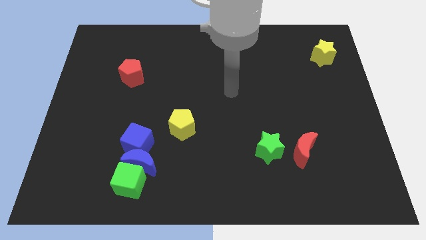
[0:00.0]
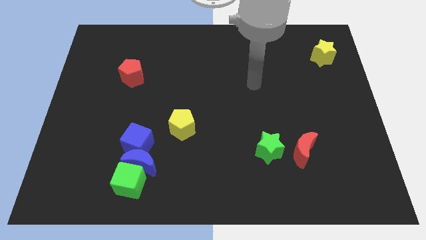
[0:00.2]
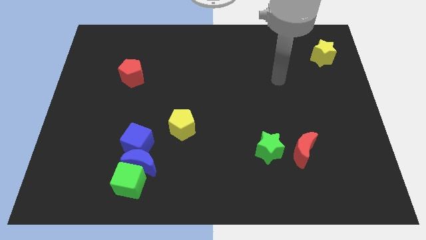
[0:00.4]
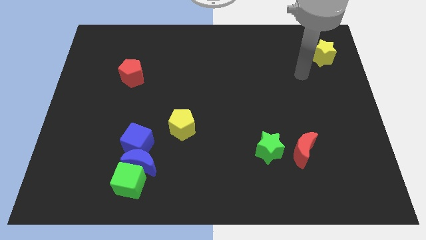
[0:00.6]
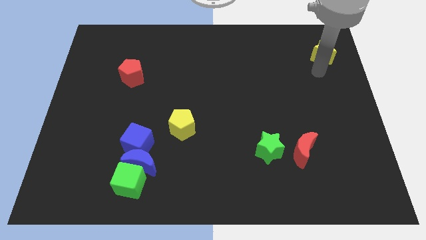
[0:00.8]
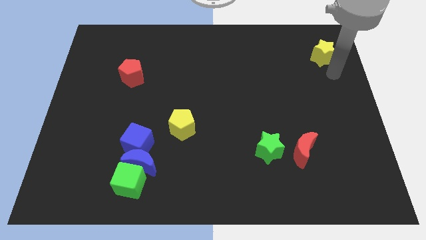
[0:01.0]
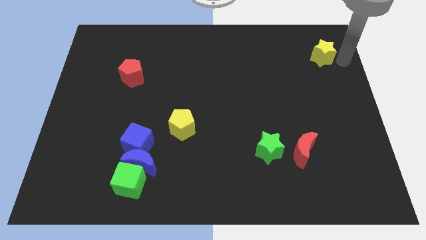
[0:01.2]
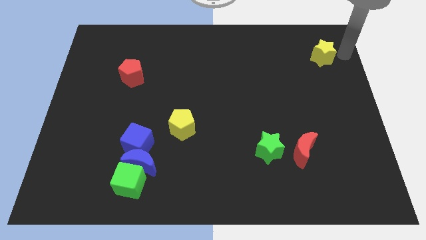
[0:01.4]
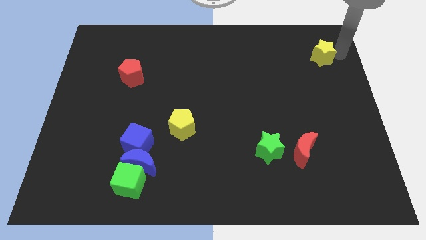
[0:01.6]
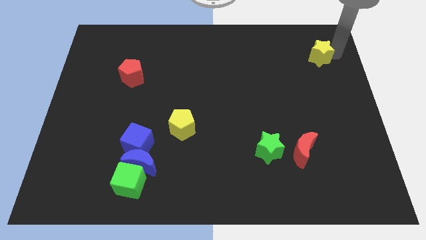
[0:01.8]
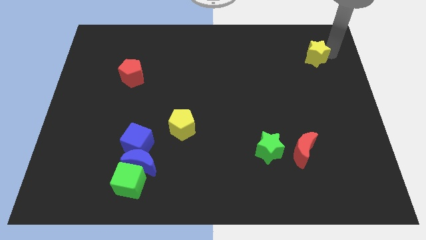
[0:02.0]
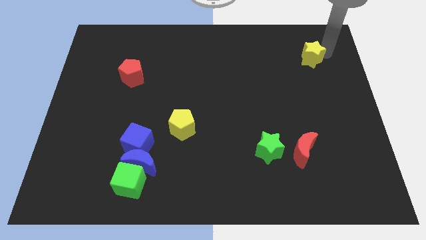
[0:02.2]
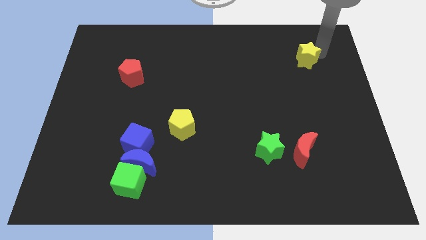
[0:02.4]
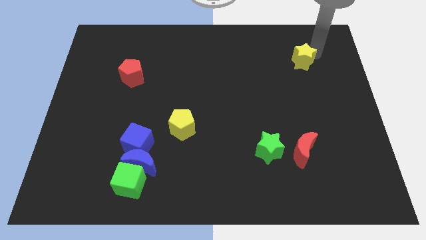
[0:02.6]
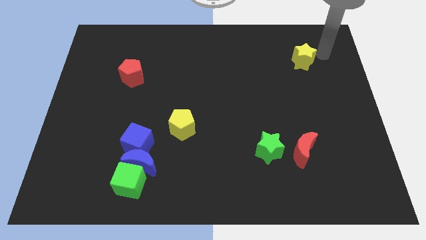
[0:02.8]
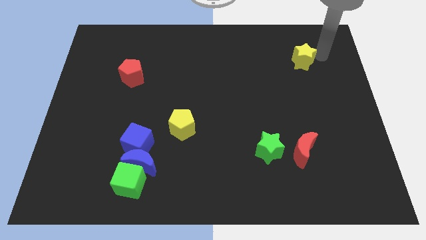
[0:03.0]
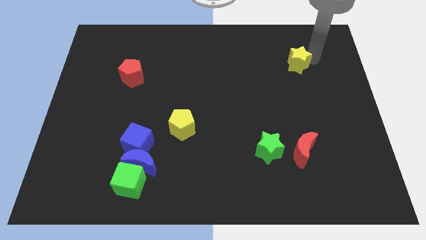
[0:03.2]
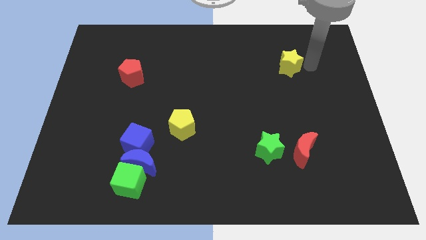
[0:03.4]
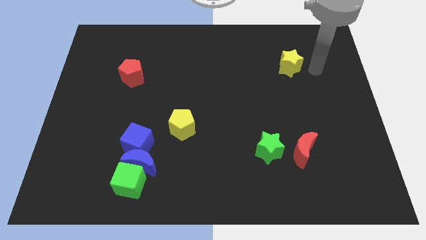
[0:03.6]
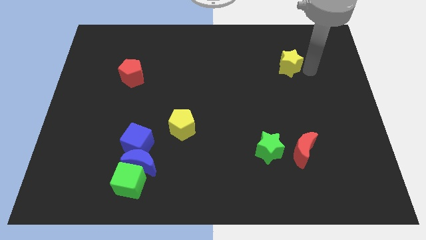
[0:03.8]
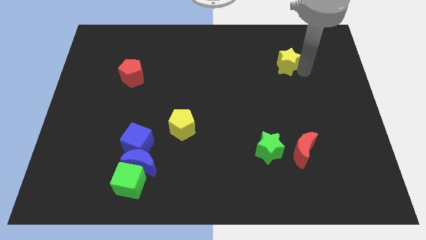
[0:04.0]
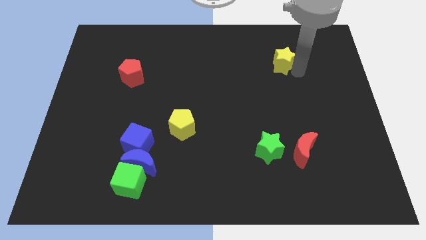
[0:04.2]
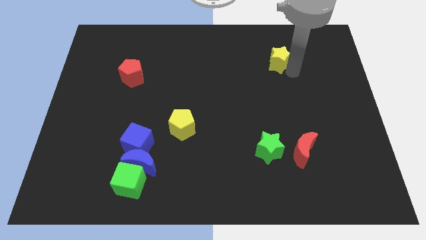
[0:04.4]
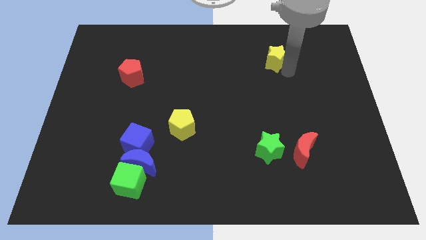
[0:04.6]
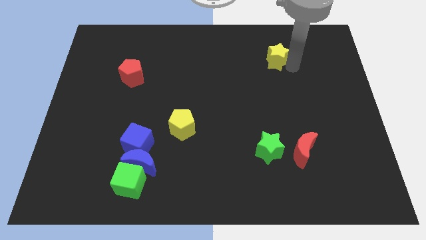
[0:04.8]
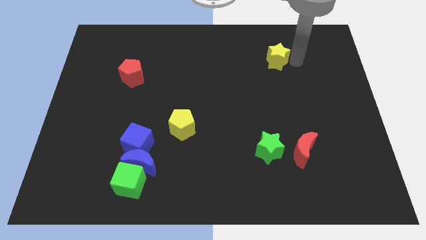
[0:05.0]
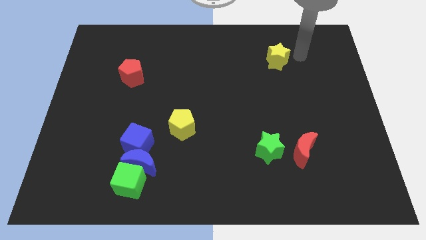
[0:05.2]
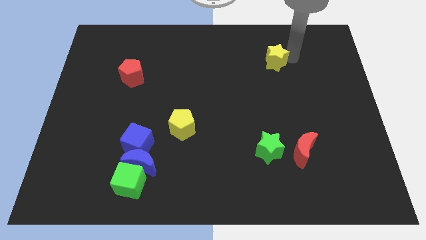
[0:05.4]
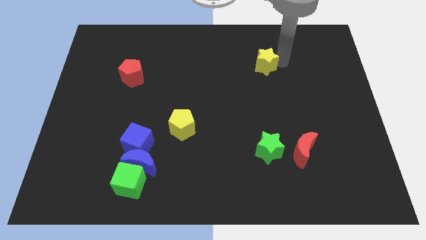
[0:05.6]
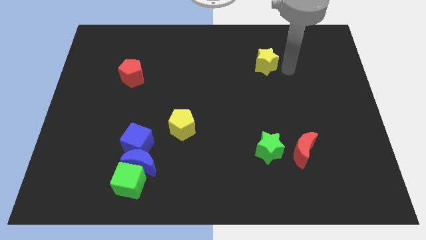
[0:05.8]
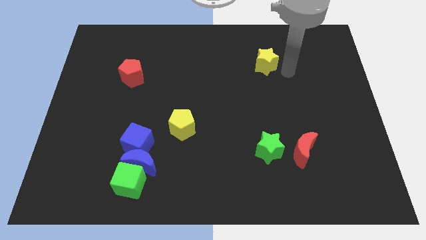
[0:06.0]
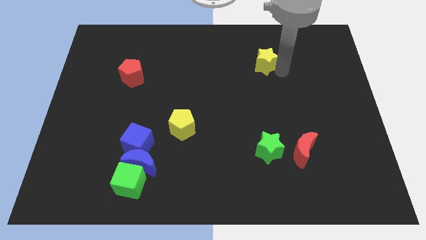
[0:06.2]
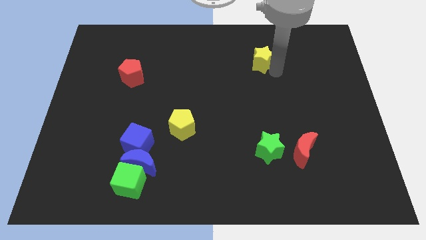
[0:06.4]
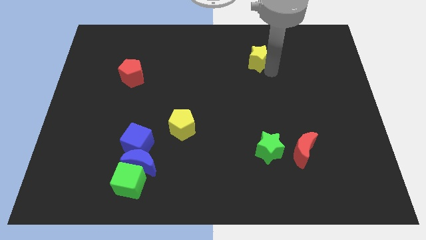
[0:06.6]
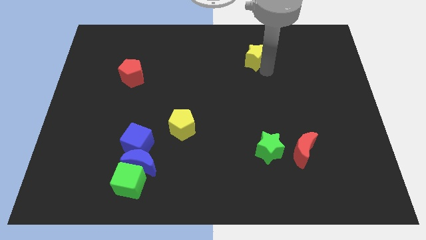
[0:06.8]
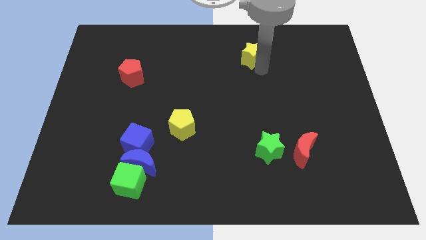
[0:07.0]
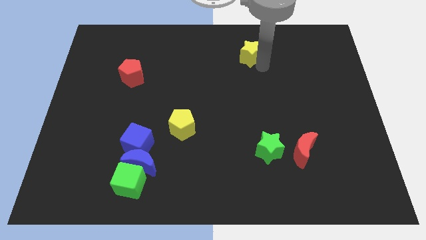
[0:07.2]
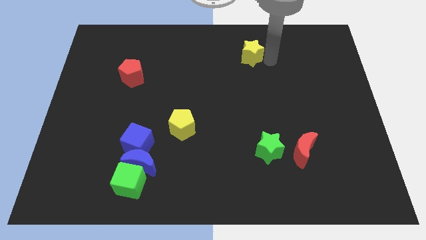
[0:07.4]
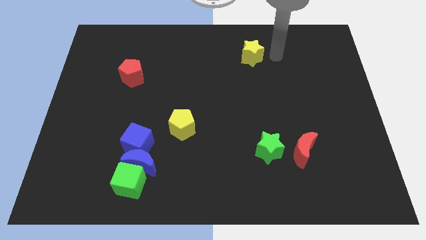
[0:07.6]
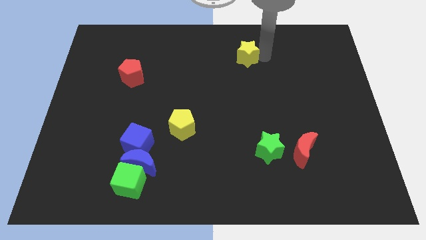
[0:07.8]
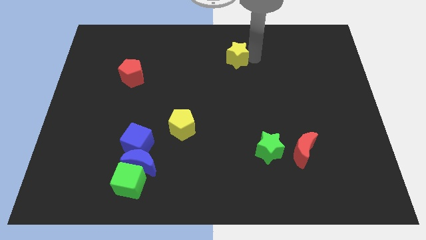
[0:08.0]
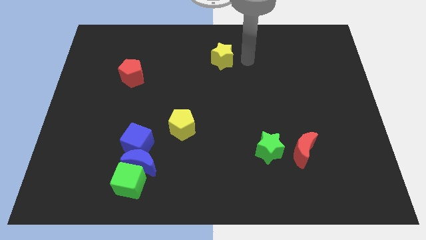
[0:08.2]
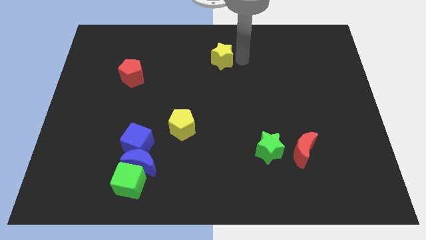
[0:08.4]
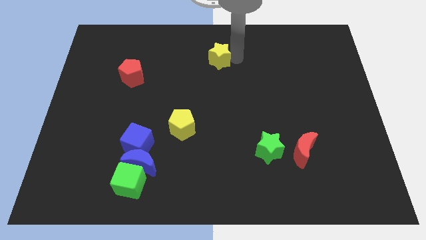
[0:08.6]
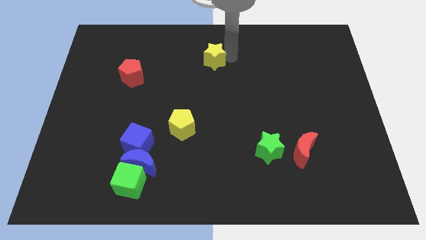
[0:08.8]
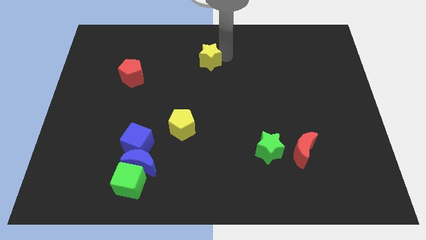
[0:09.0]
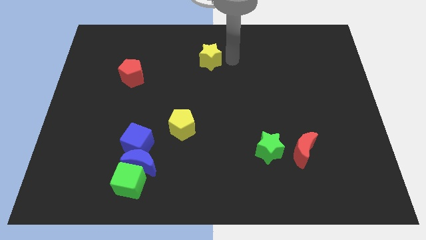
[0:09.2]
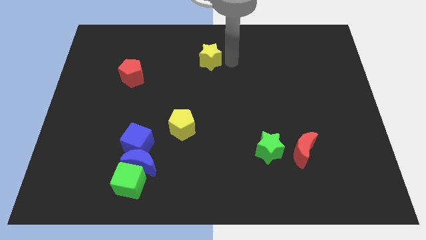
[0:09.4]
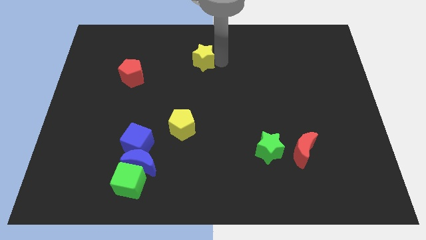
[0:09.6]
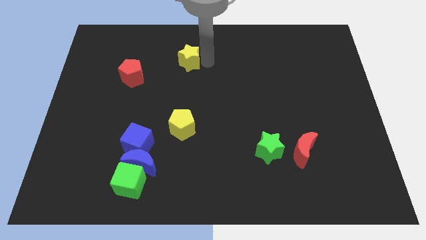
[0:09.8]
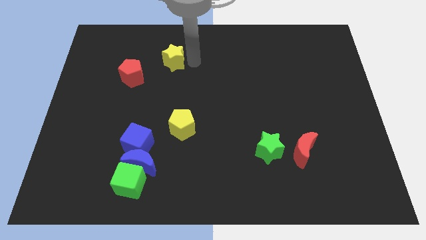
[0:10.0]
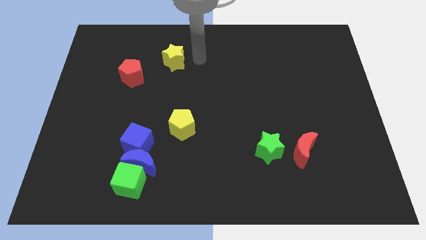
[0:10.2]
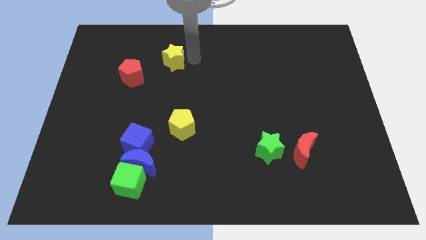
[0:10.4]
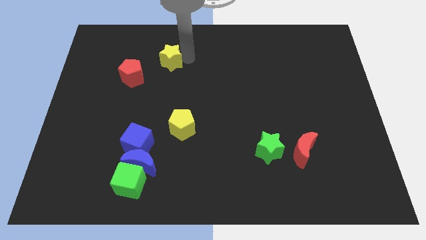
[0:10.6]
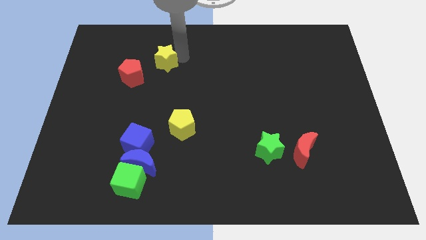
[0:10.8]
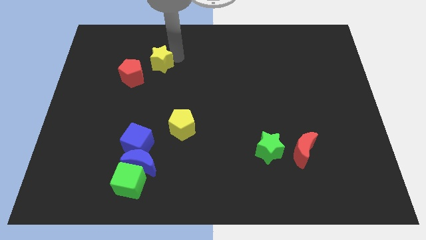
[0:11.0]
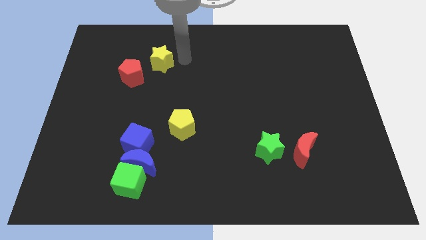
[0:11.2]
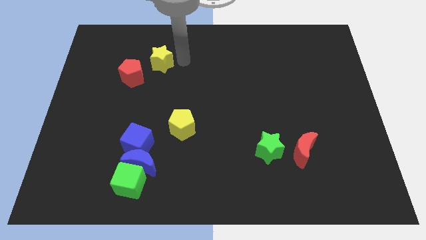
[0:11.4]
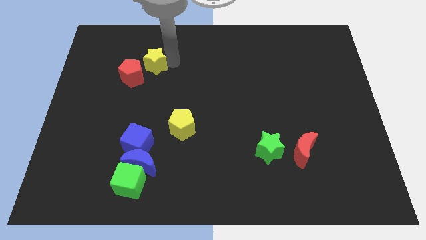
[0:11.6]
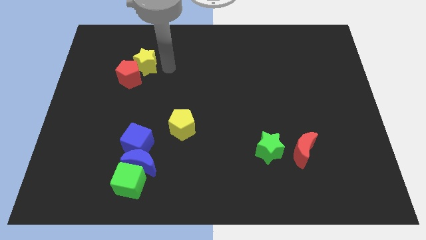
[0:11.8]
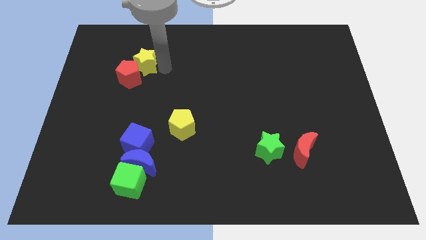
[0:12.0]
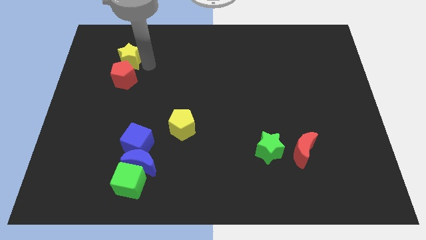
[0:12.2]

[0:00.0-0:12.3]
slide the yellow star diagonally up and to the left of the red pentagon
